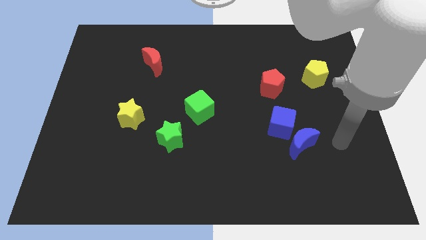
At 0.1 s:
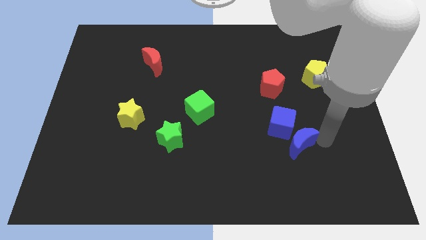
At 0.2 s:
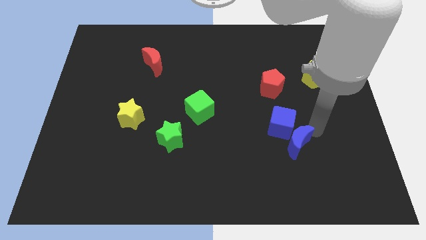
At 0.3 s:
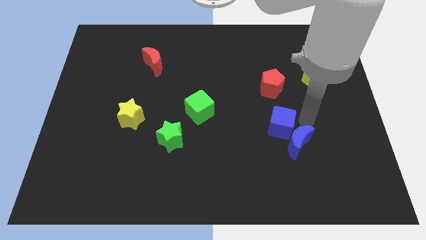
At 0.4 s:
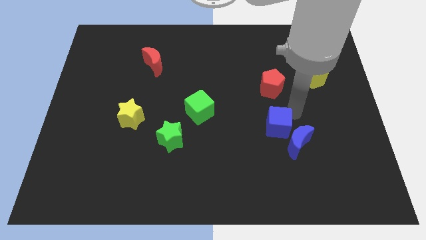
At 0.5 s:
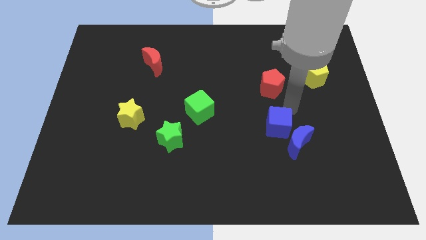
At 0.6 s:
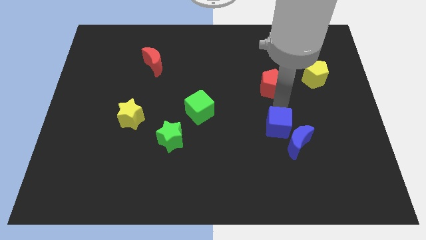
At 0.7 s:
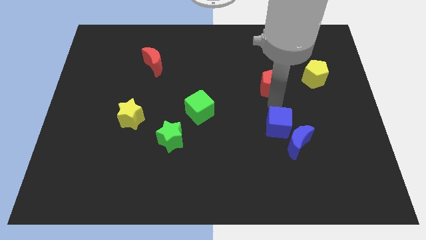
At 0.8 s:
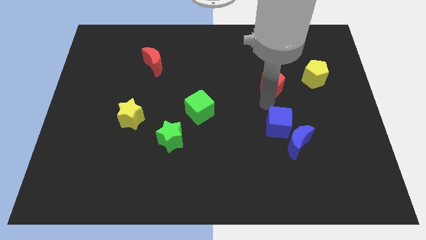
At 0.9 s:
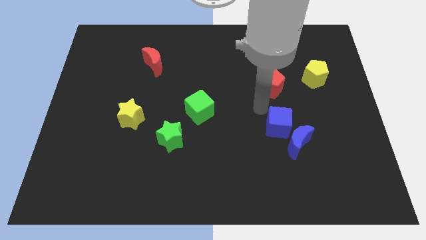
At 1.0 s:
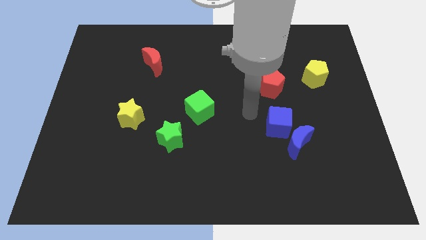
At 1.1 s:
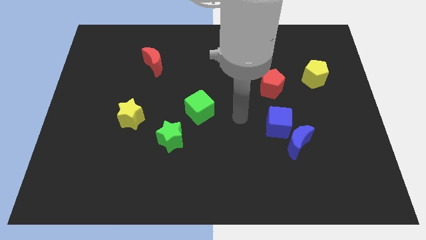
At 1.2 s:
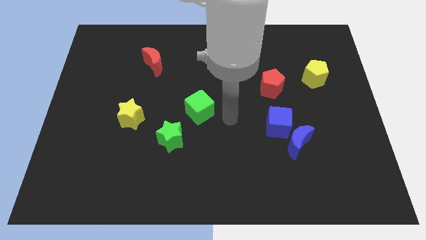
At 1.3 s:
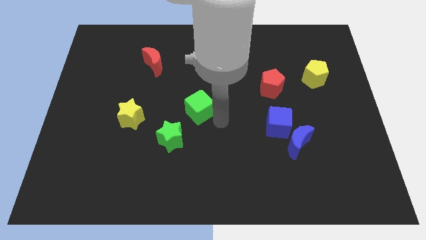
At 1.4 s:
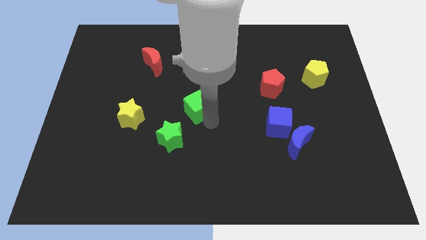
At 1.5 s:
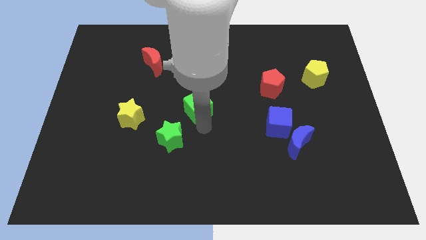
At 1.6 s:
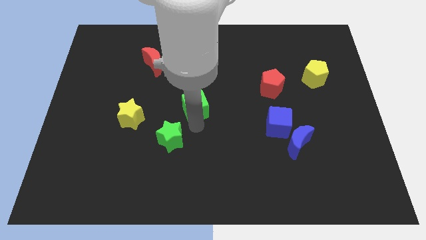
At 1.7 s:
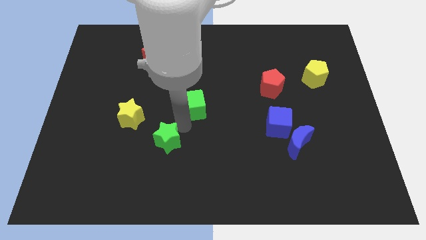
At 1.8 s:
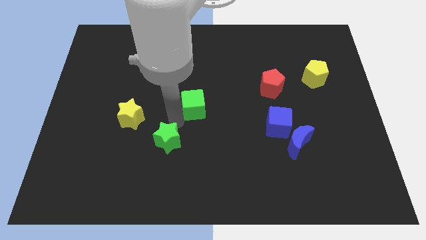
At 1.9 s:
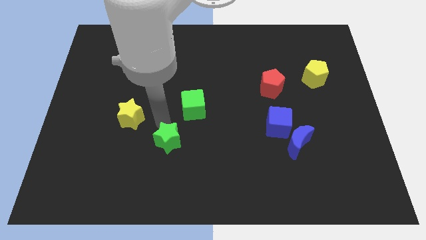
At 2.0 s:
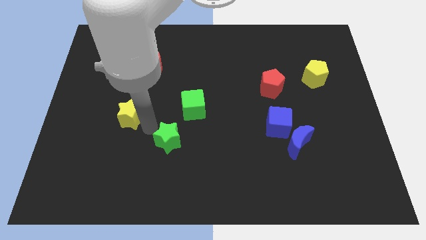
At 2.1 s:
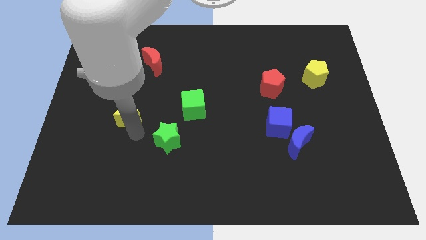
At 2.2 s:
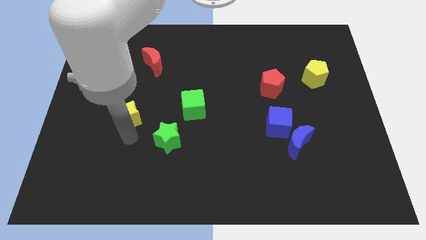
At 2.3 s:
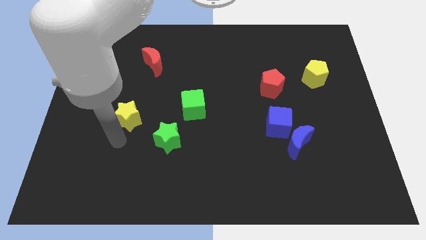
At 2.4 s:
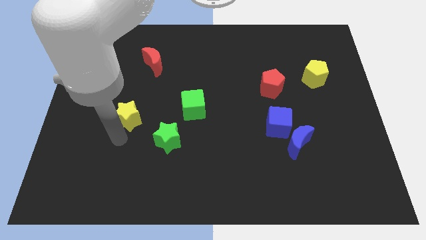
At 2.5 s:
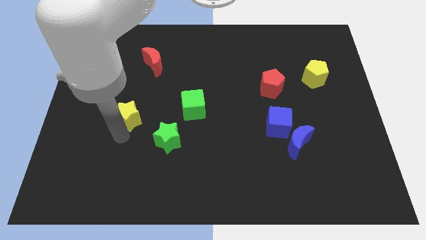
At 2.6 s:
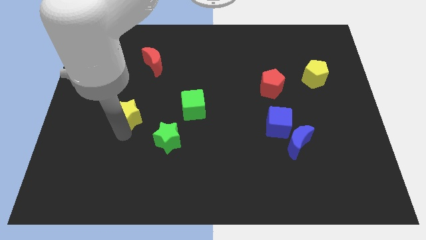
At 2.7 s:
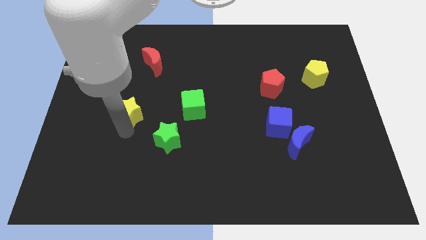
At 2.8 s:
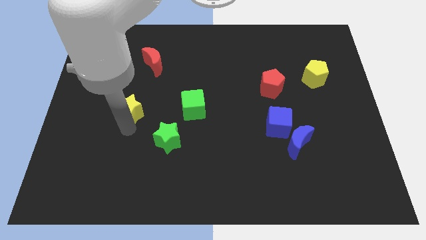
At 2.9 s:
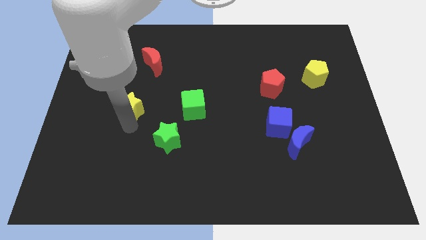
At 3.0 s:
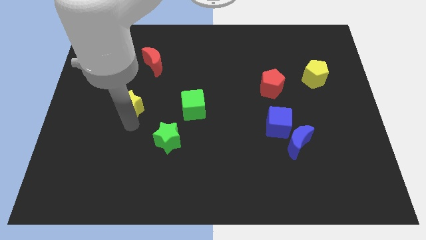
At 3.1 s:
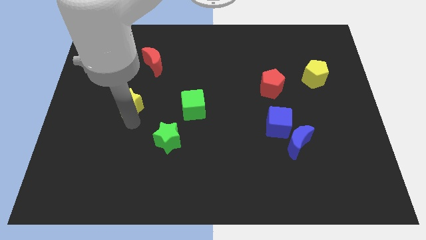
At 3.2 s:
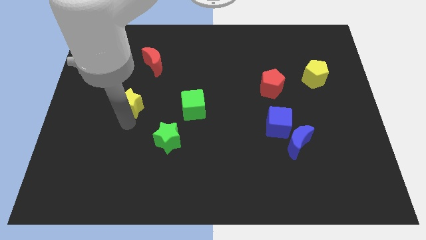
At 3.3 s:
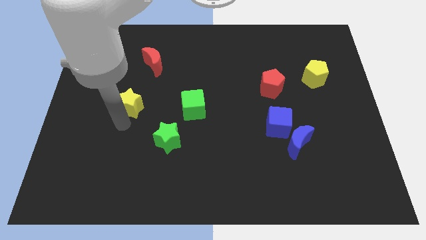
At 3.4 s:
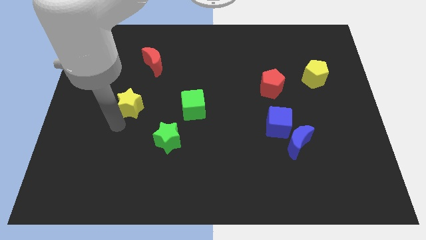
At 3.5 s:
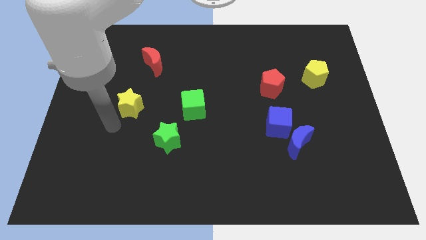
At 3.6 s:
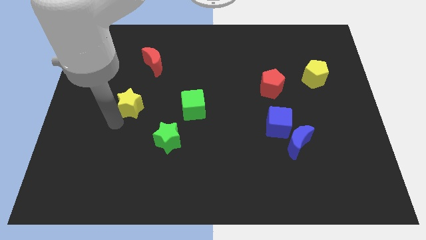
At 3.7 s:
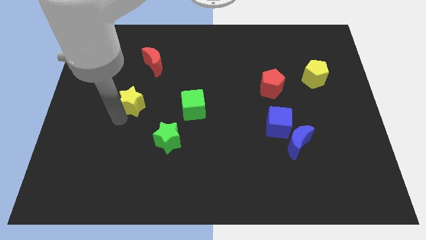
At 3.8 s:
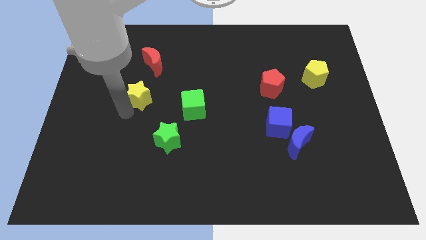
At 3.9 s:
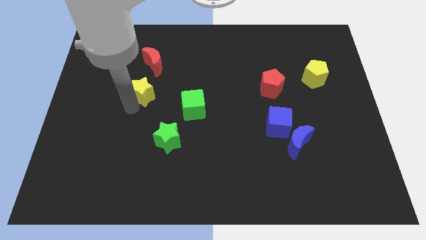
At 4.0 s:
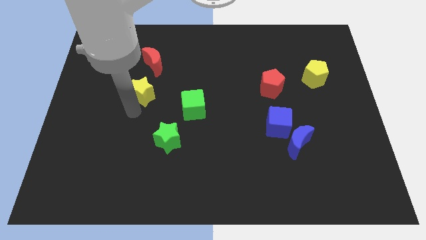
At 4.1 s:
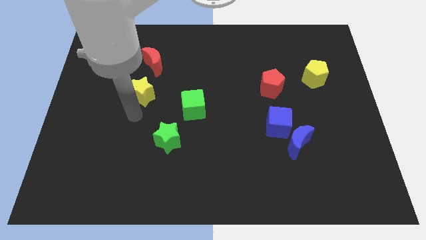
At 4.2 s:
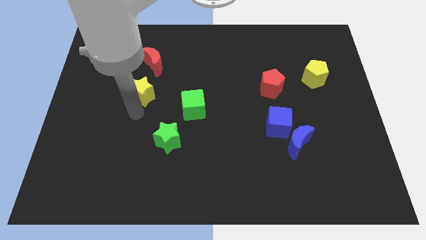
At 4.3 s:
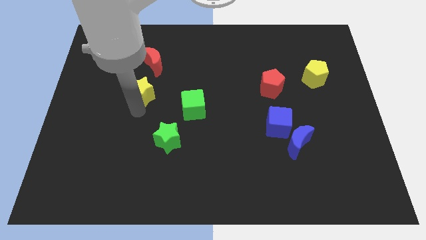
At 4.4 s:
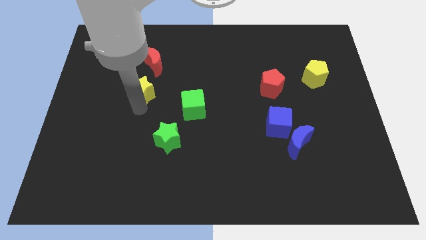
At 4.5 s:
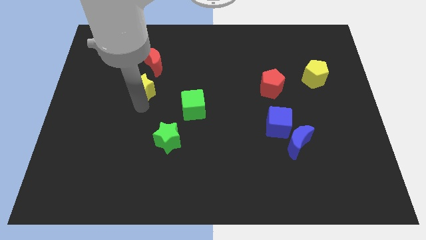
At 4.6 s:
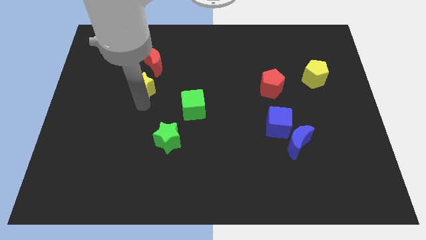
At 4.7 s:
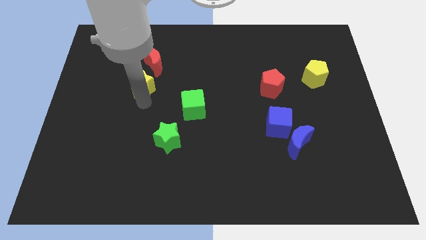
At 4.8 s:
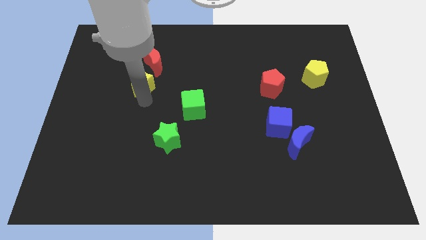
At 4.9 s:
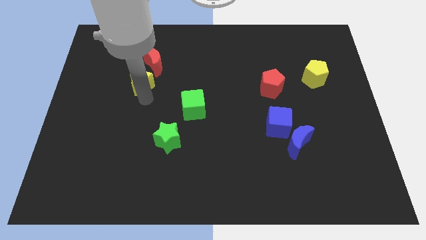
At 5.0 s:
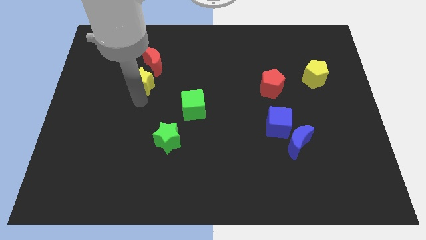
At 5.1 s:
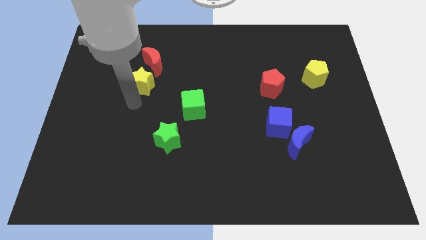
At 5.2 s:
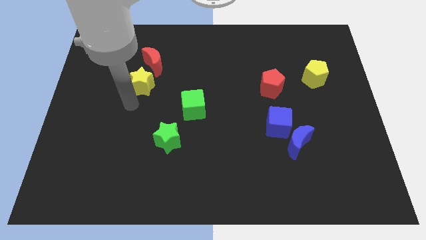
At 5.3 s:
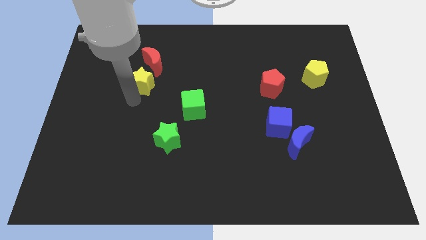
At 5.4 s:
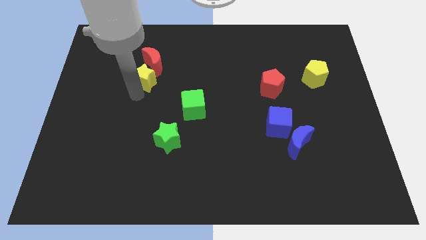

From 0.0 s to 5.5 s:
slide the yellow star close to the red moon

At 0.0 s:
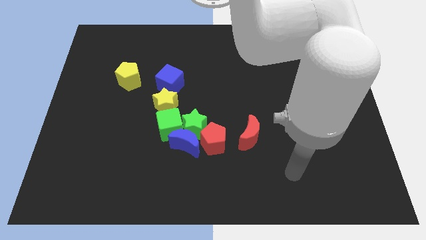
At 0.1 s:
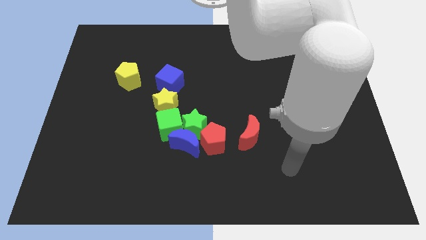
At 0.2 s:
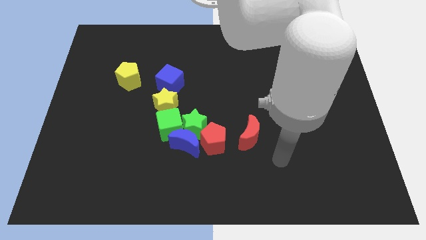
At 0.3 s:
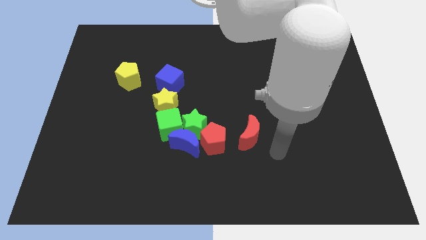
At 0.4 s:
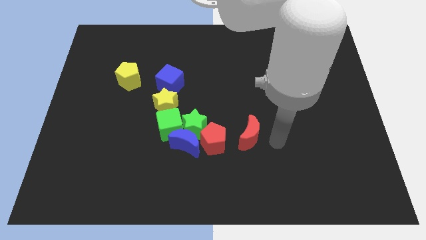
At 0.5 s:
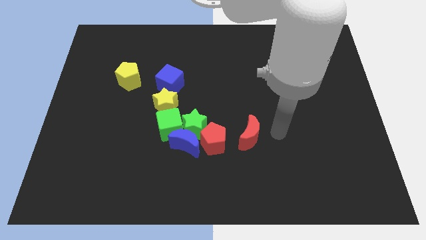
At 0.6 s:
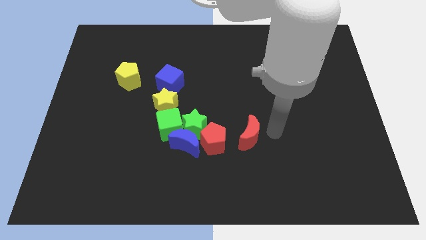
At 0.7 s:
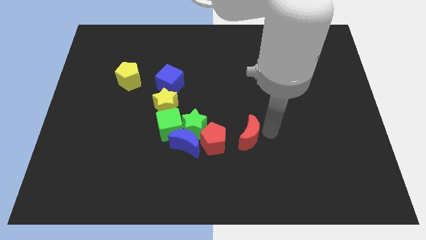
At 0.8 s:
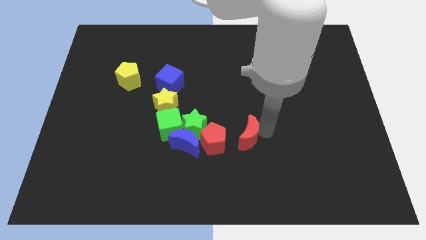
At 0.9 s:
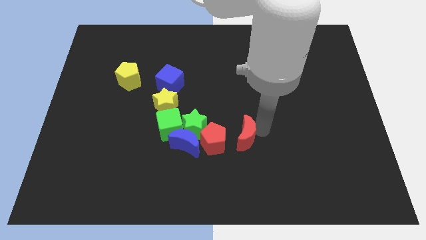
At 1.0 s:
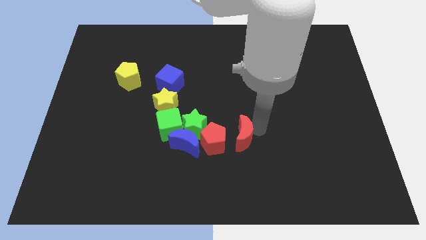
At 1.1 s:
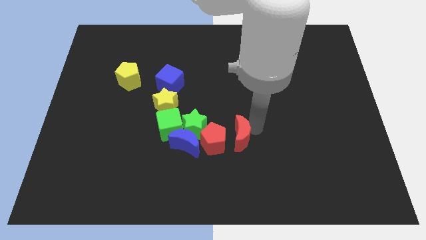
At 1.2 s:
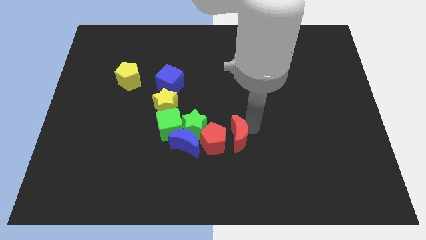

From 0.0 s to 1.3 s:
slide the red moon next to the red pentagon
